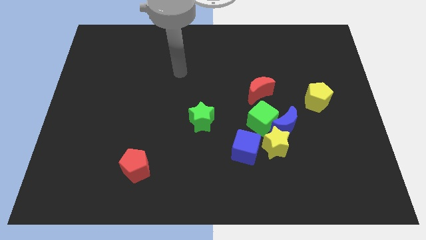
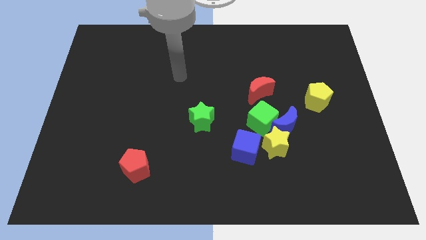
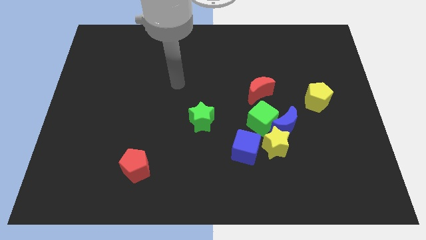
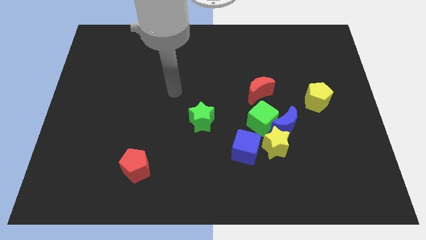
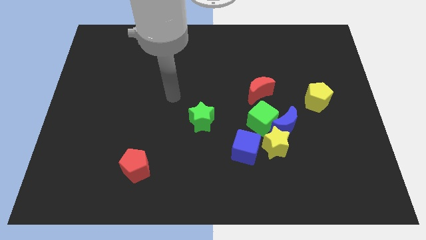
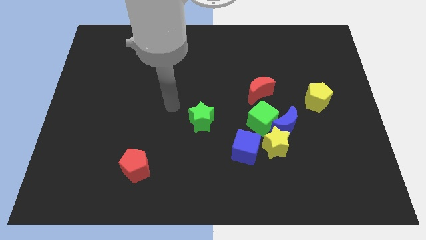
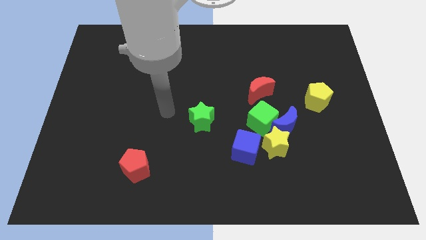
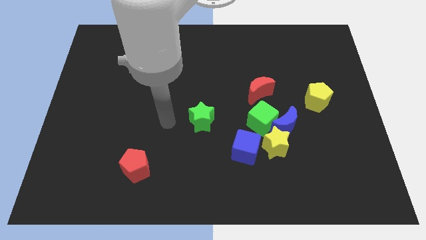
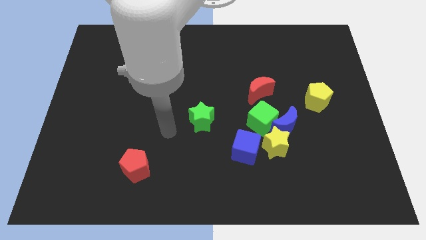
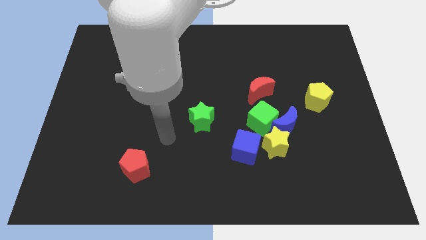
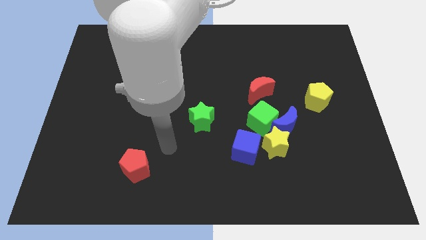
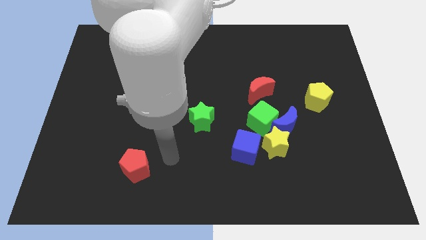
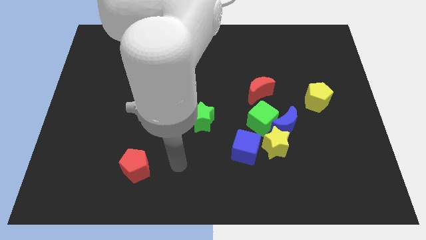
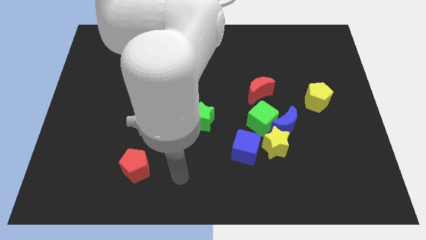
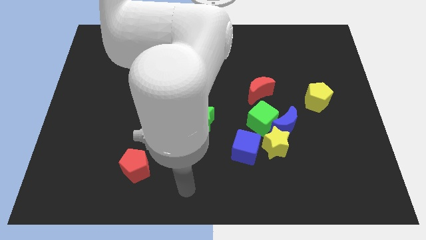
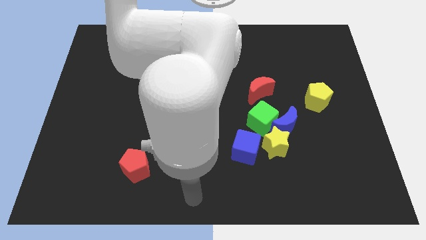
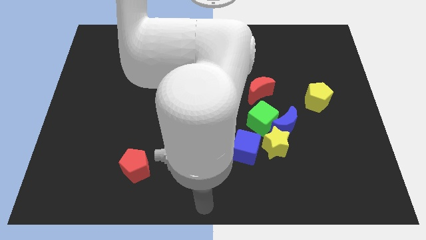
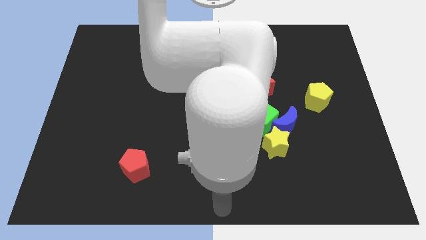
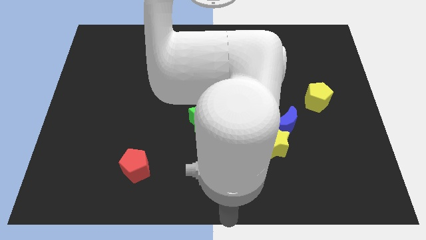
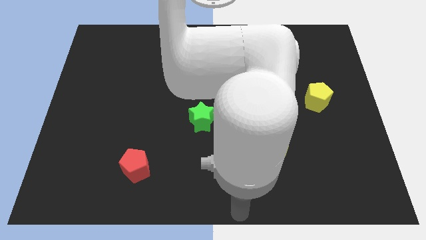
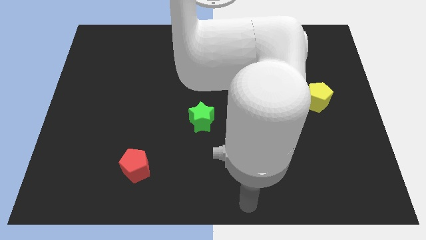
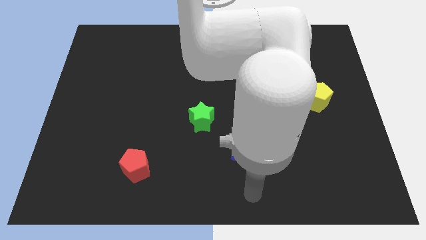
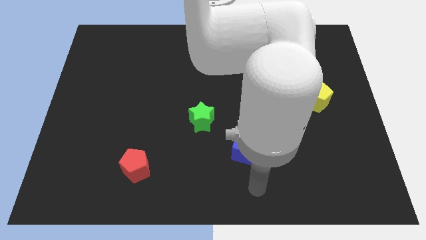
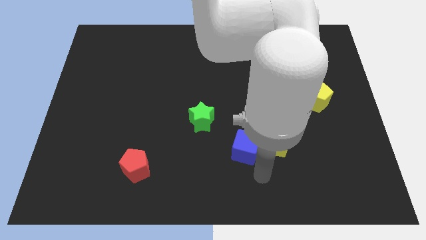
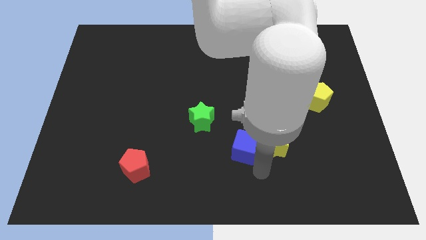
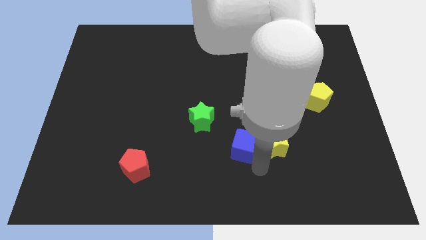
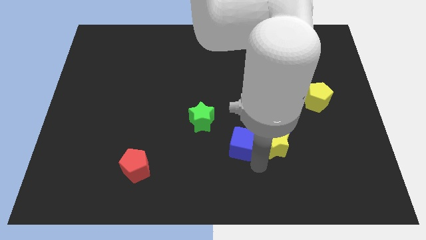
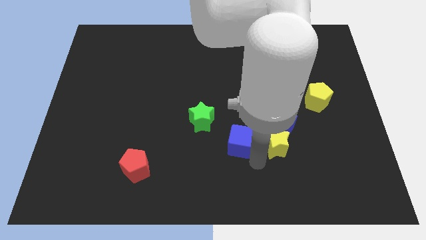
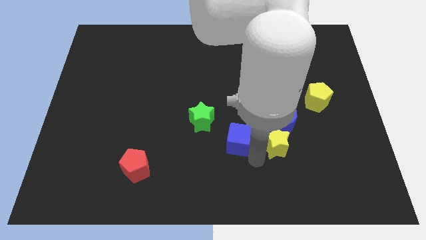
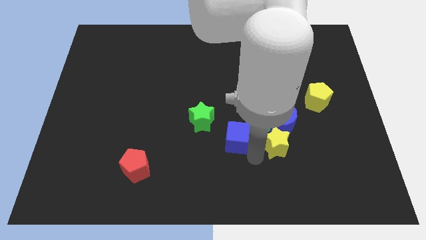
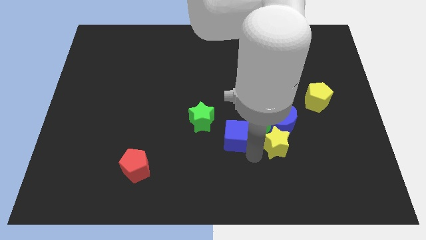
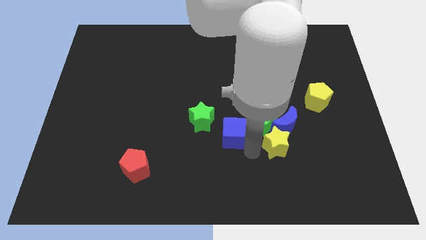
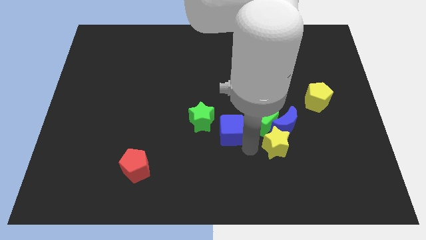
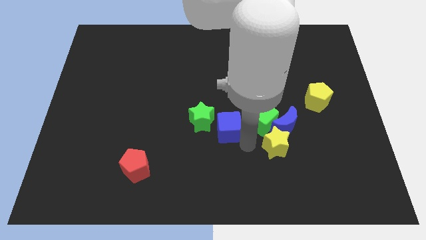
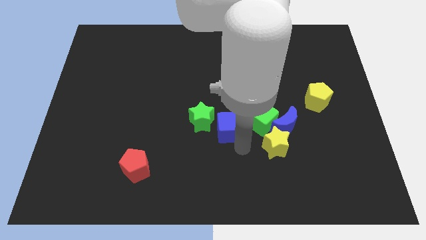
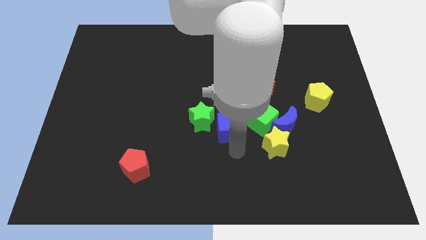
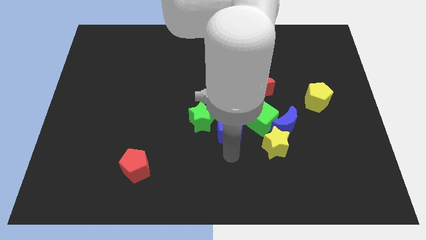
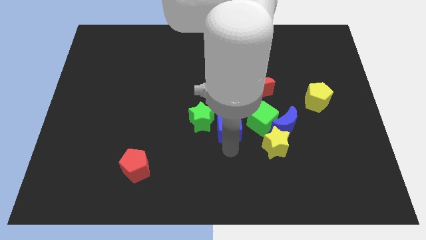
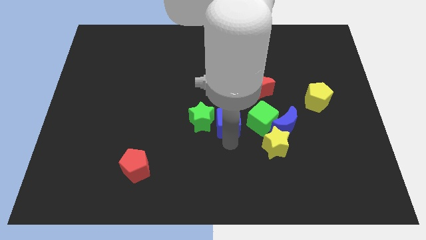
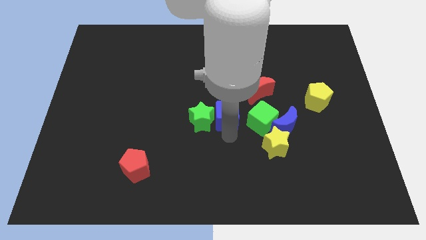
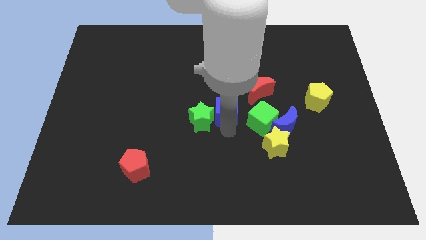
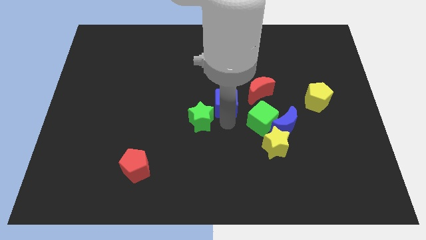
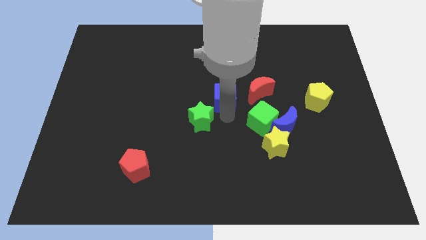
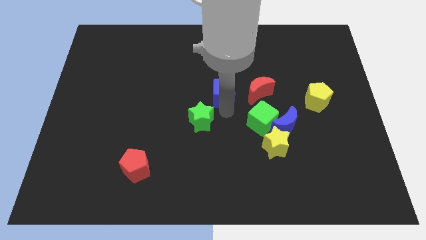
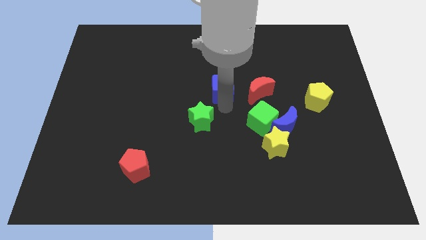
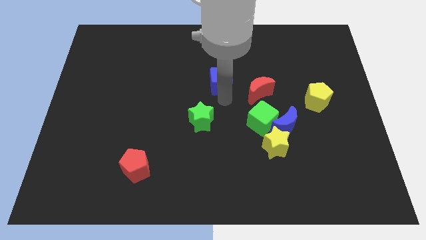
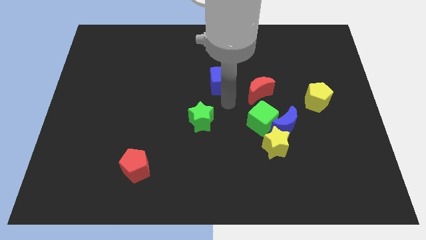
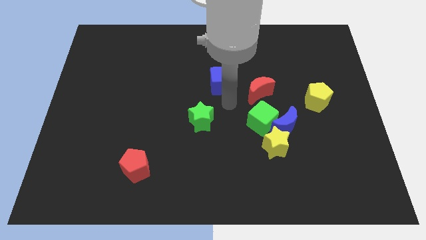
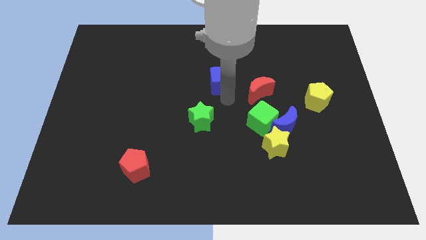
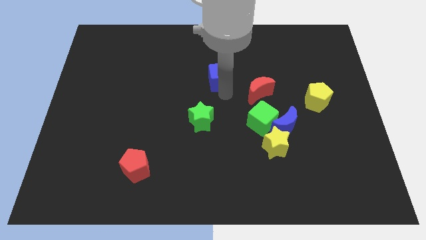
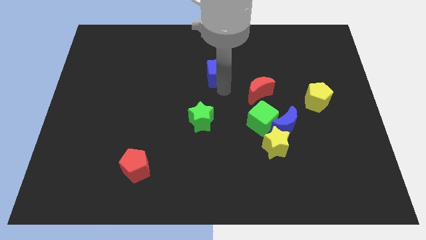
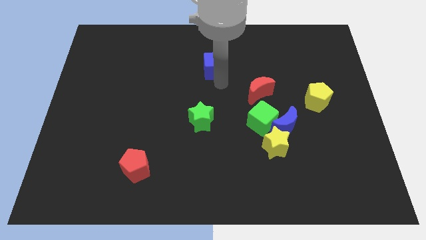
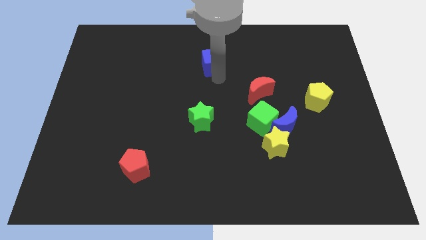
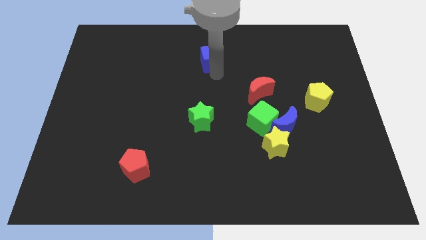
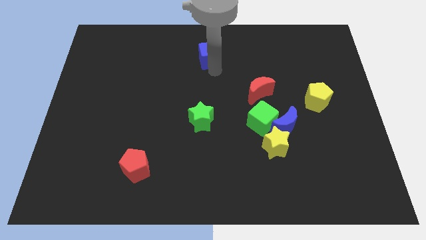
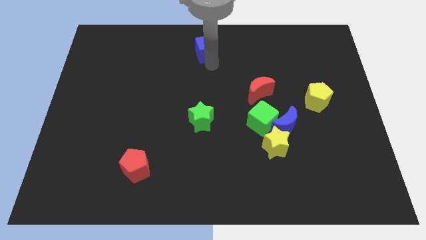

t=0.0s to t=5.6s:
put the blue cube to the towards your base

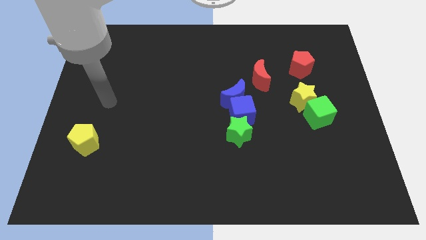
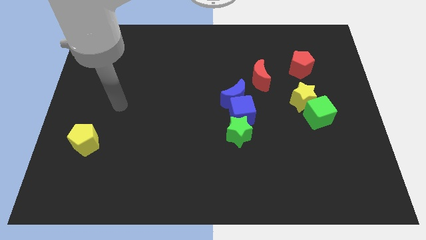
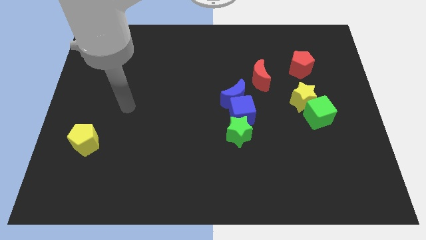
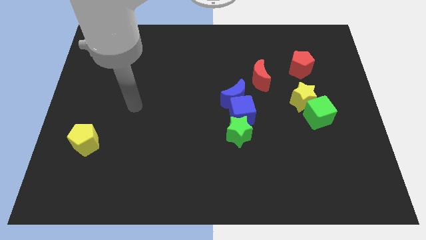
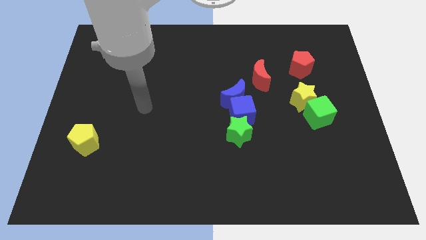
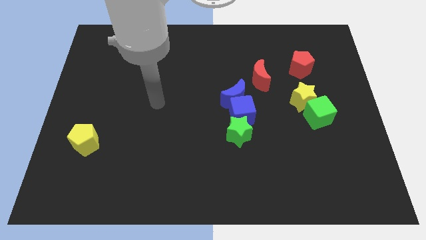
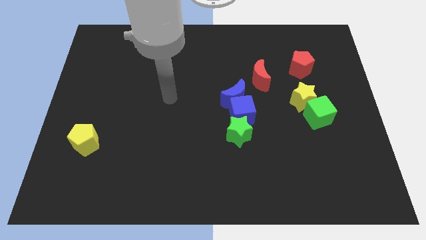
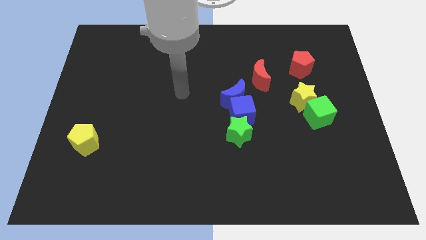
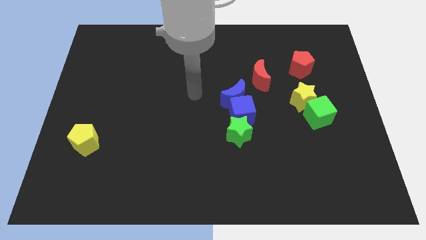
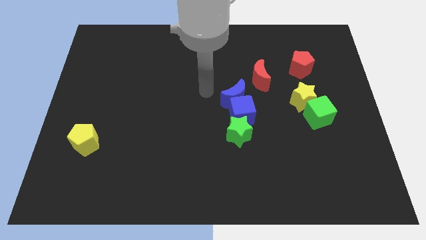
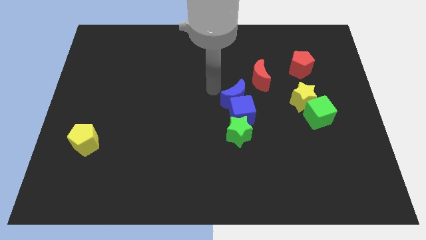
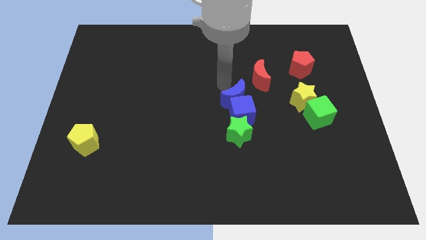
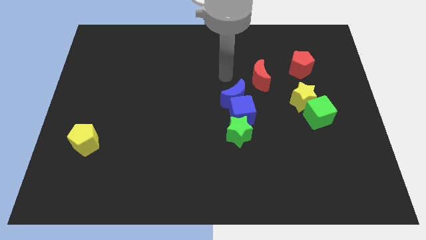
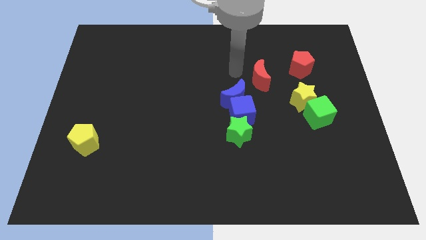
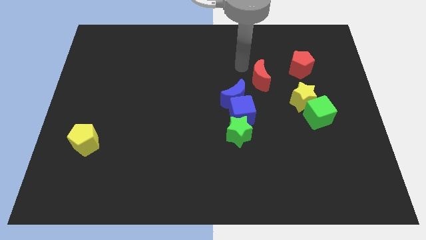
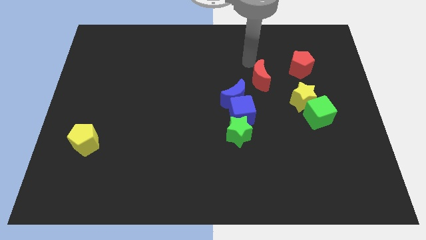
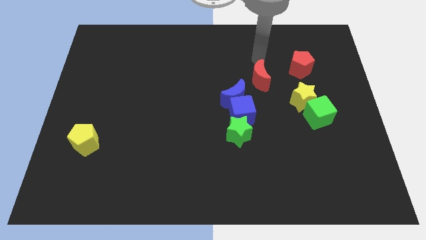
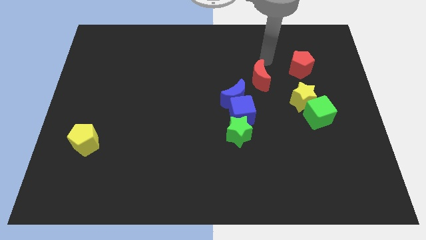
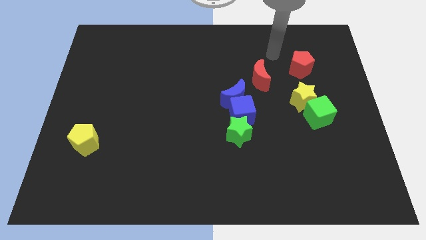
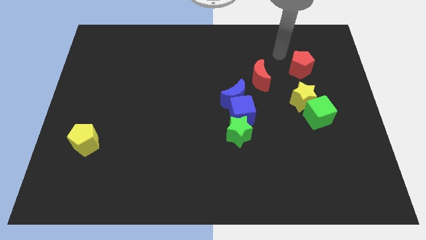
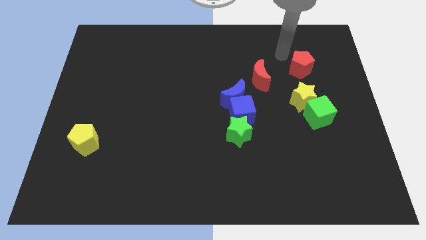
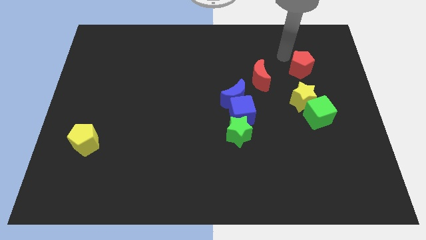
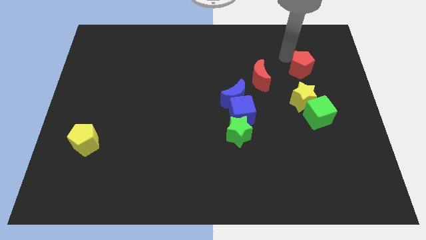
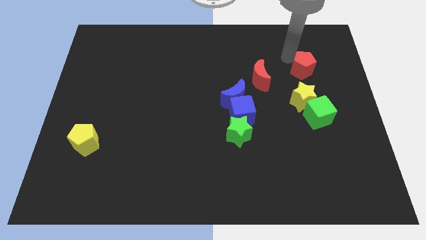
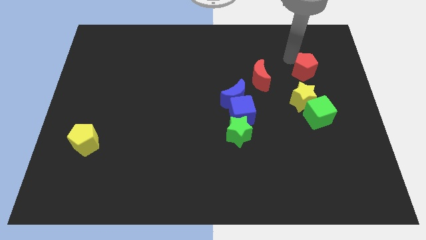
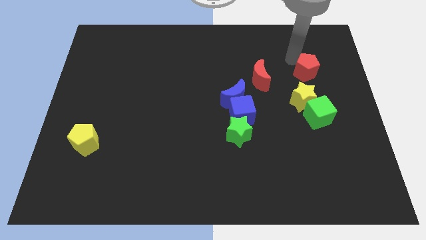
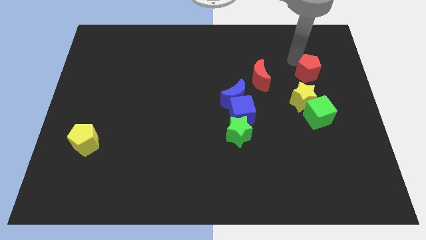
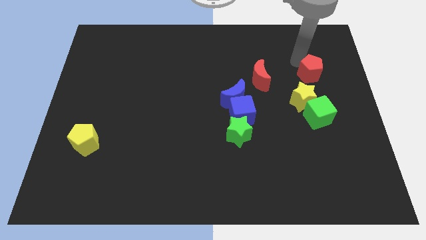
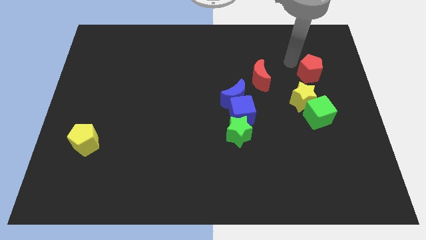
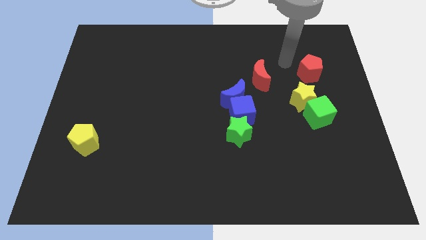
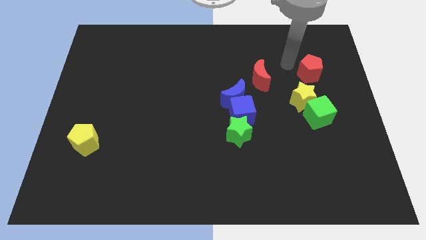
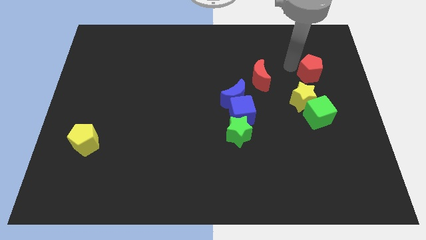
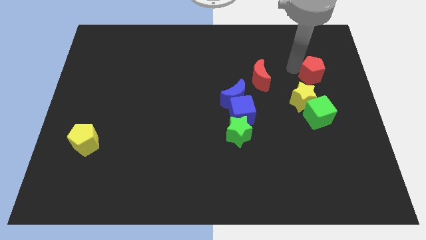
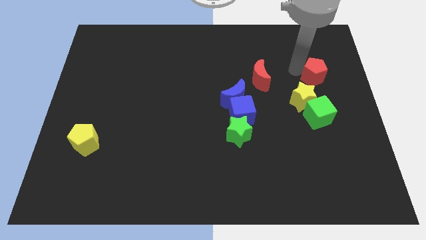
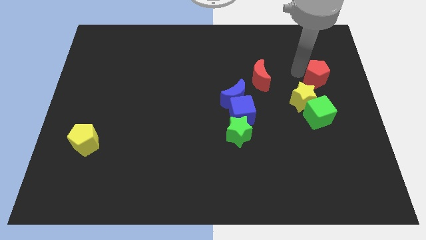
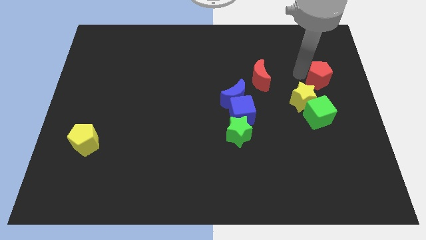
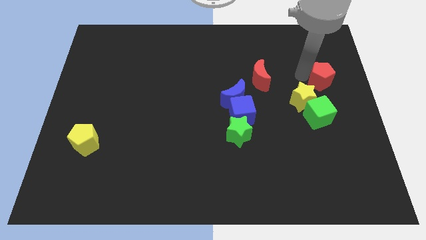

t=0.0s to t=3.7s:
put the red pentagon to the right side of the board
